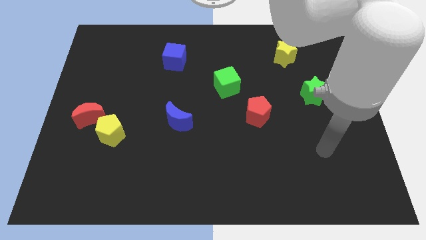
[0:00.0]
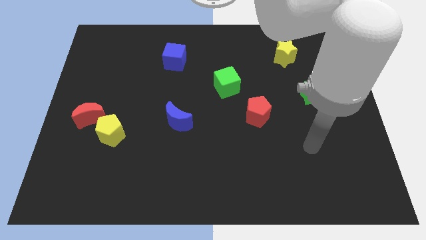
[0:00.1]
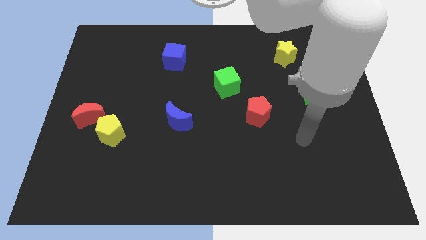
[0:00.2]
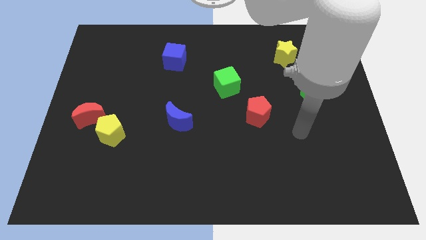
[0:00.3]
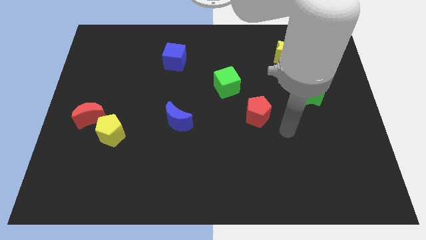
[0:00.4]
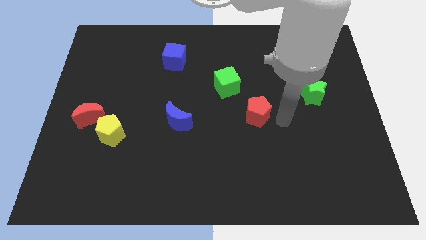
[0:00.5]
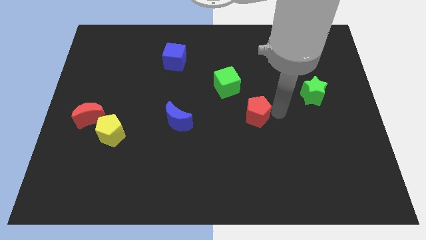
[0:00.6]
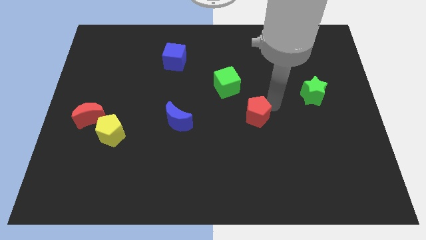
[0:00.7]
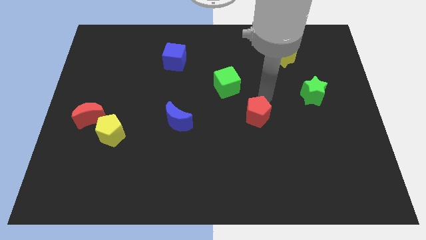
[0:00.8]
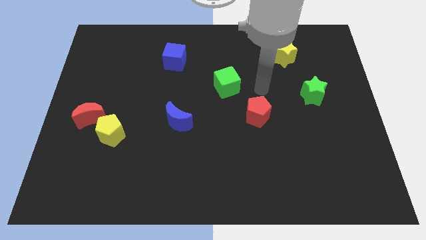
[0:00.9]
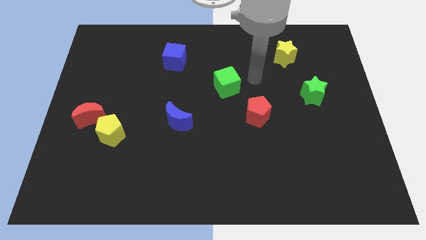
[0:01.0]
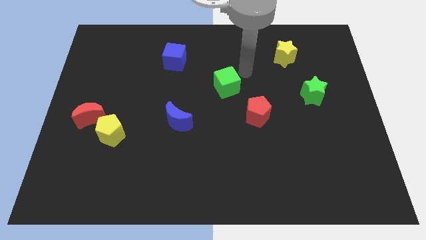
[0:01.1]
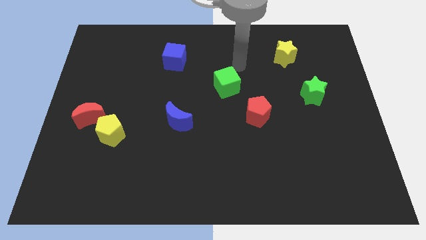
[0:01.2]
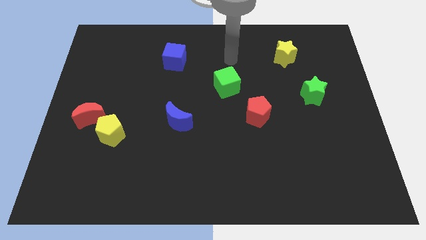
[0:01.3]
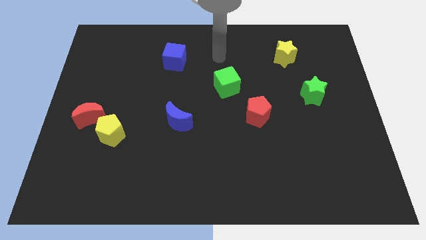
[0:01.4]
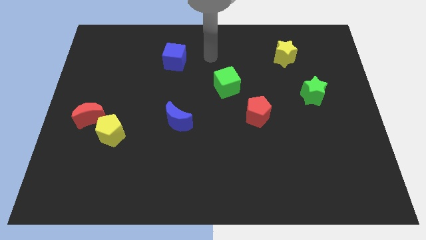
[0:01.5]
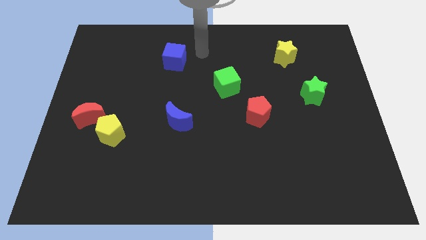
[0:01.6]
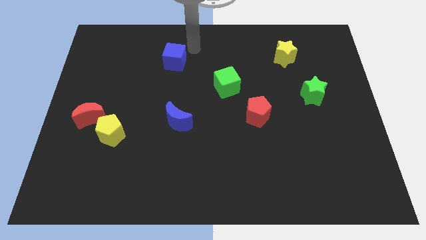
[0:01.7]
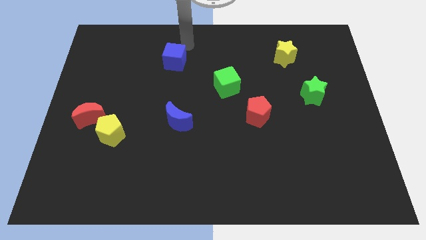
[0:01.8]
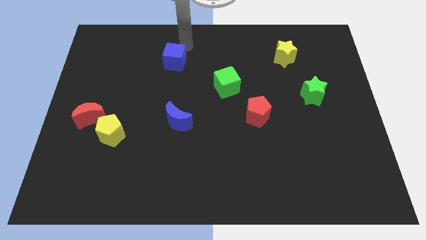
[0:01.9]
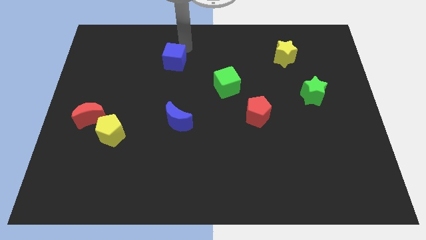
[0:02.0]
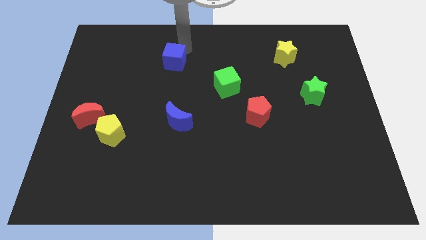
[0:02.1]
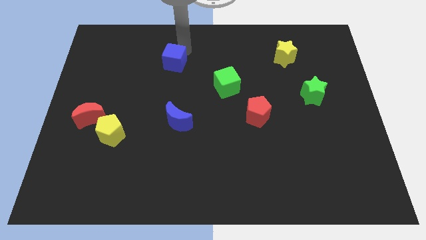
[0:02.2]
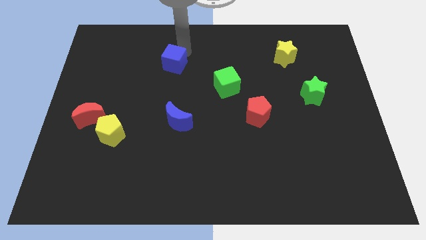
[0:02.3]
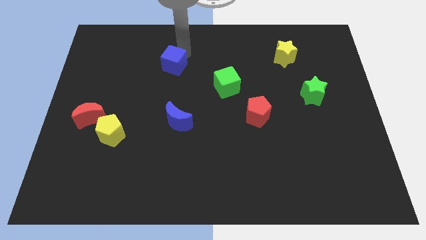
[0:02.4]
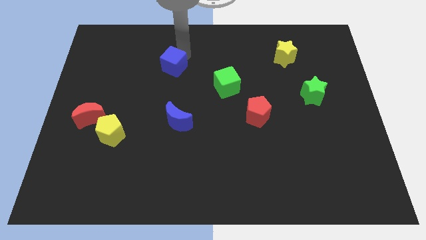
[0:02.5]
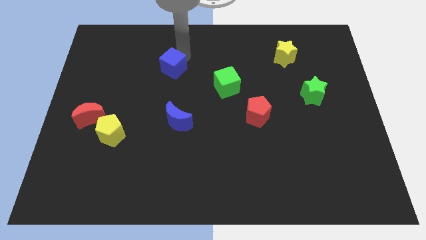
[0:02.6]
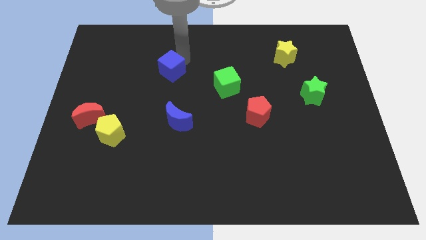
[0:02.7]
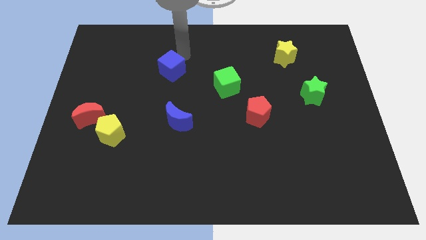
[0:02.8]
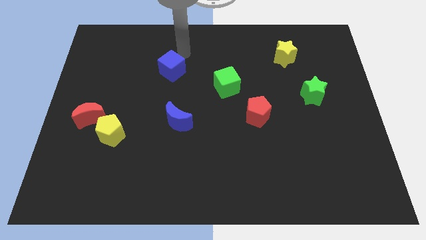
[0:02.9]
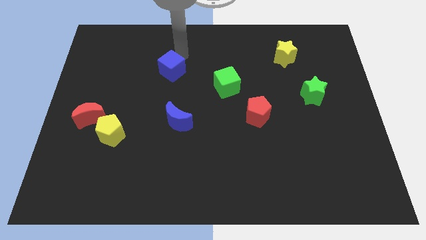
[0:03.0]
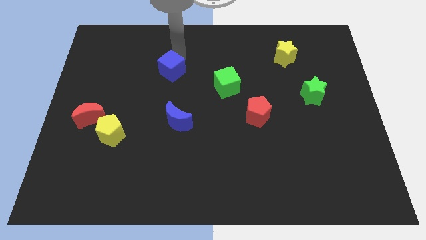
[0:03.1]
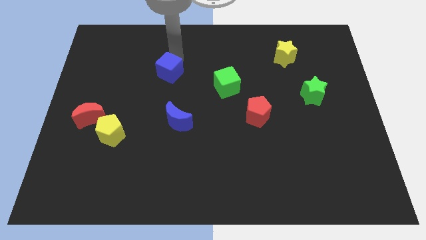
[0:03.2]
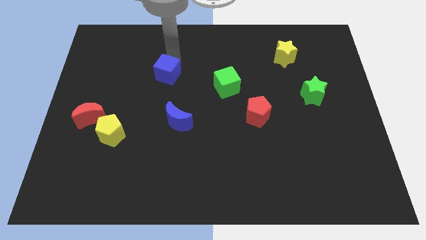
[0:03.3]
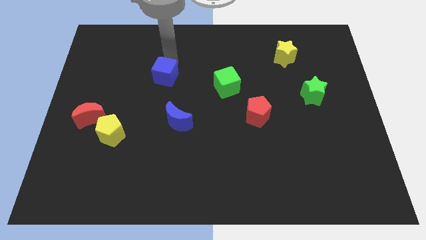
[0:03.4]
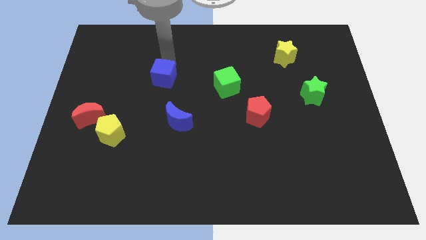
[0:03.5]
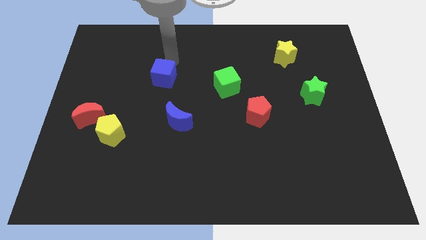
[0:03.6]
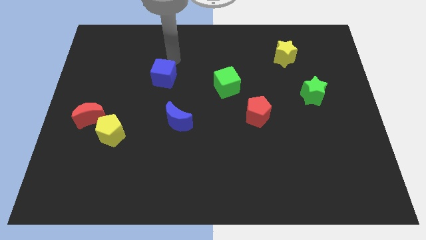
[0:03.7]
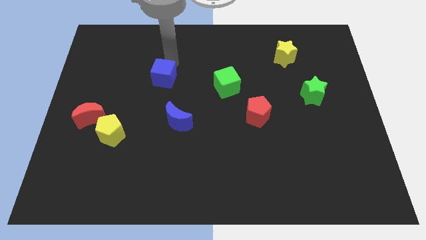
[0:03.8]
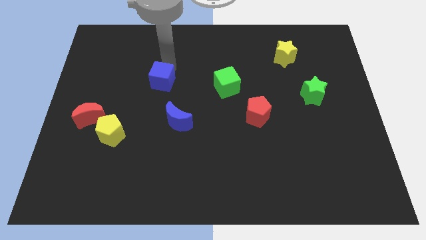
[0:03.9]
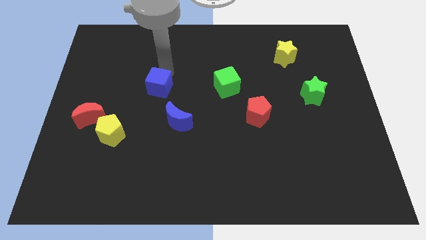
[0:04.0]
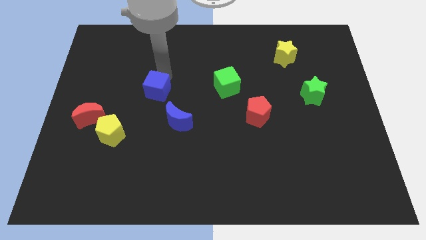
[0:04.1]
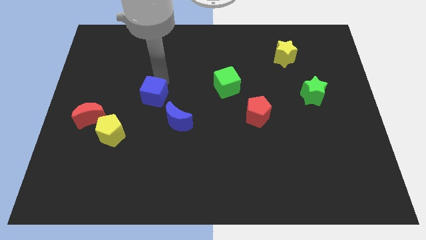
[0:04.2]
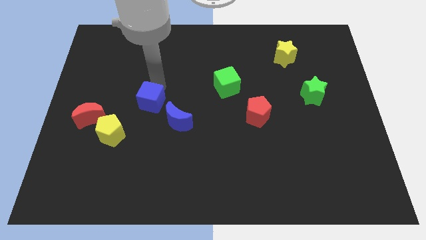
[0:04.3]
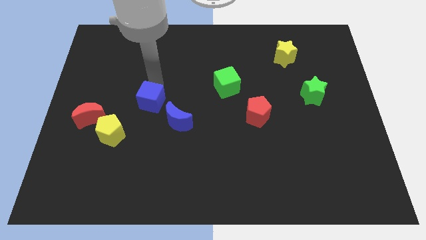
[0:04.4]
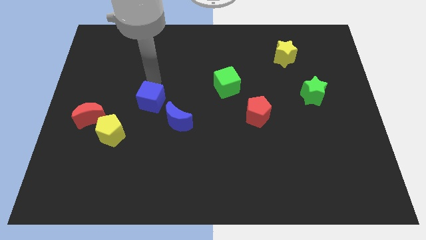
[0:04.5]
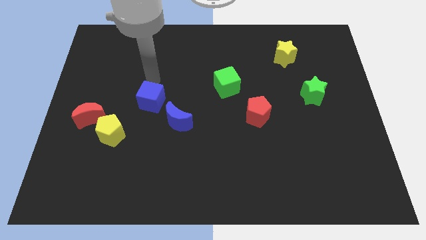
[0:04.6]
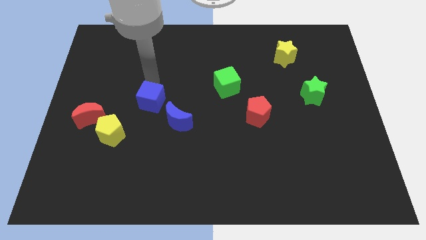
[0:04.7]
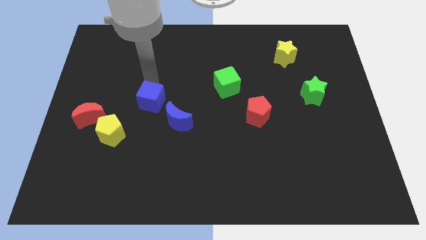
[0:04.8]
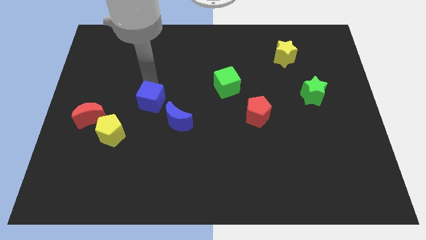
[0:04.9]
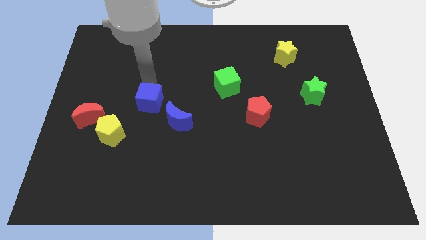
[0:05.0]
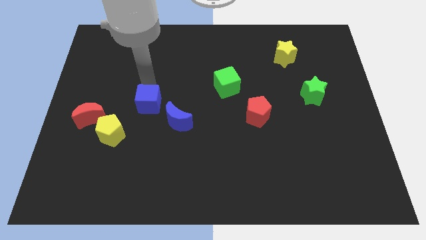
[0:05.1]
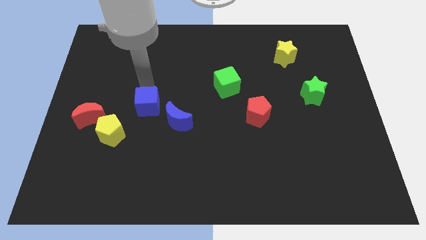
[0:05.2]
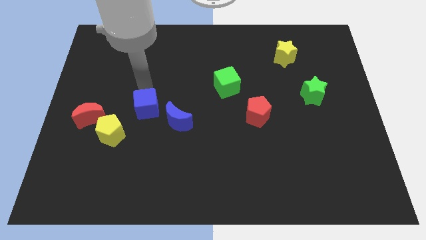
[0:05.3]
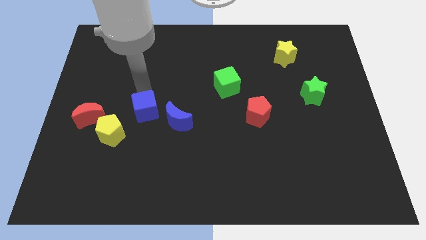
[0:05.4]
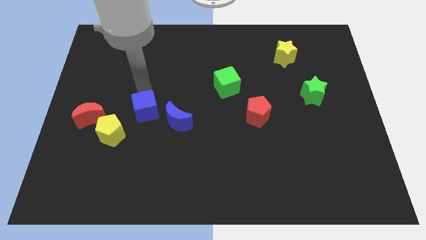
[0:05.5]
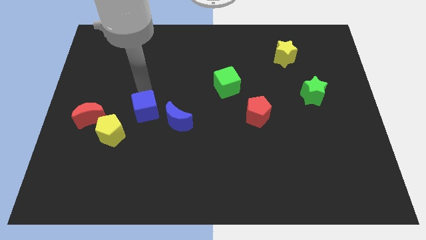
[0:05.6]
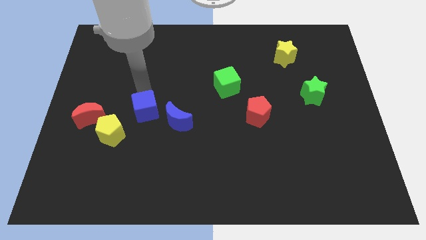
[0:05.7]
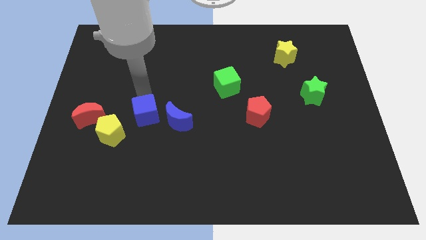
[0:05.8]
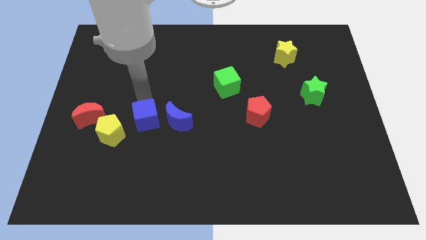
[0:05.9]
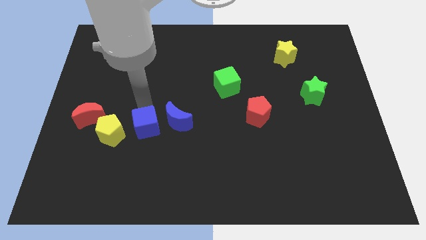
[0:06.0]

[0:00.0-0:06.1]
push the blue cube diagonally down and to the left of the blue moon
